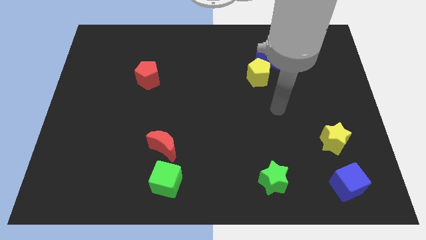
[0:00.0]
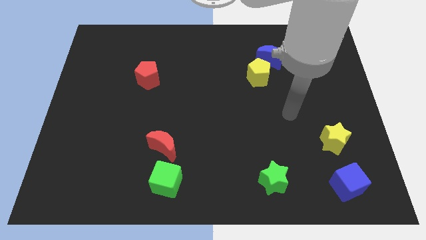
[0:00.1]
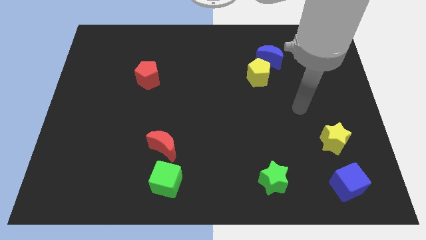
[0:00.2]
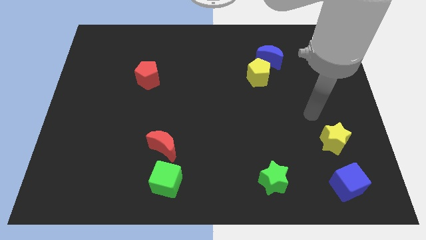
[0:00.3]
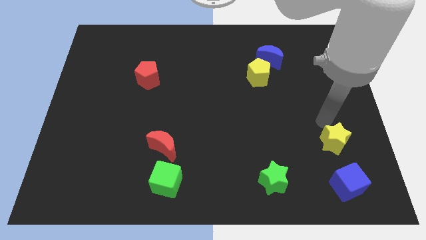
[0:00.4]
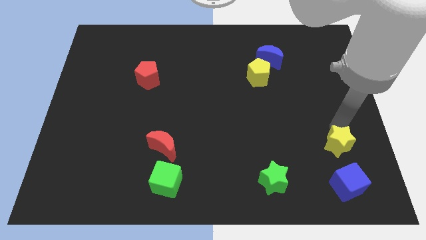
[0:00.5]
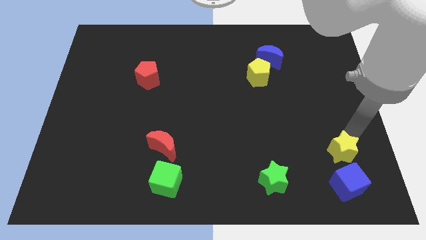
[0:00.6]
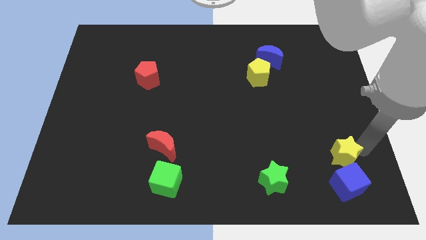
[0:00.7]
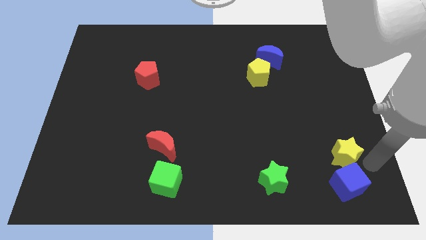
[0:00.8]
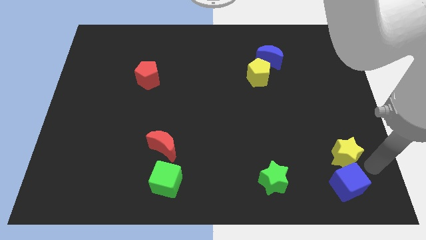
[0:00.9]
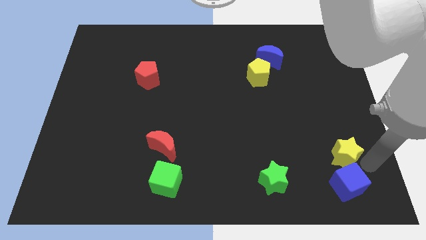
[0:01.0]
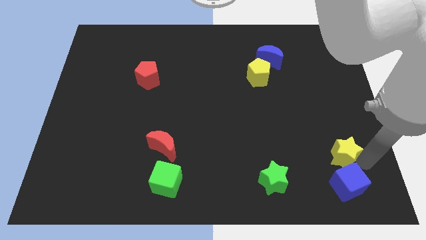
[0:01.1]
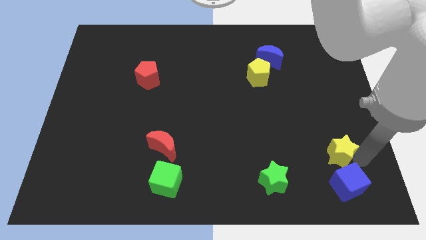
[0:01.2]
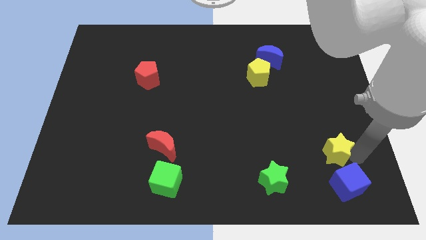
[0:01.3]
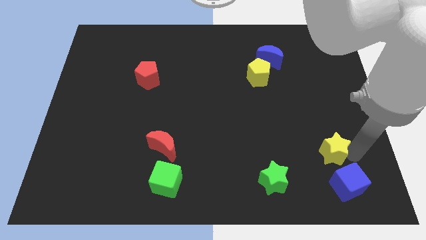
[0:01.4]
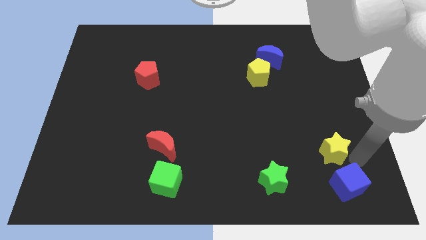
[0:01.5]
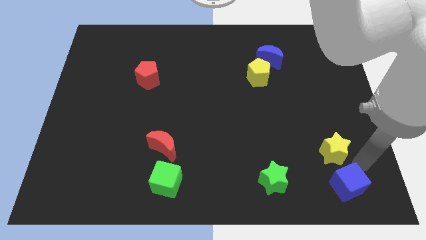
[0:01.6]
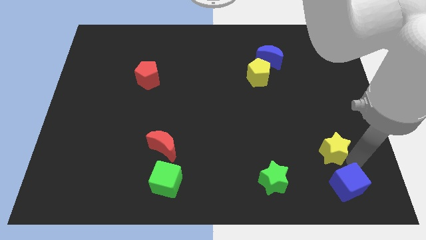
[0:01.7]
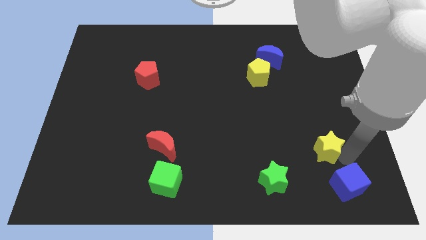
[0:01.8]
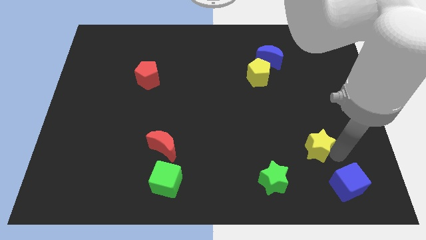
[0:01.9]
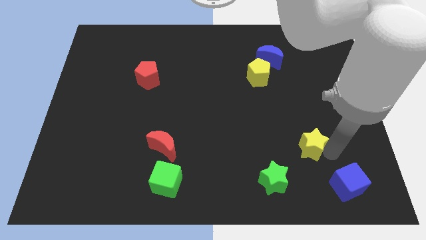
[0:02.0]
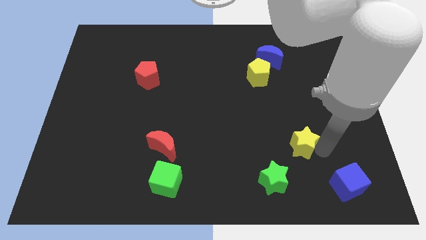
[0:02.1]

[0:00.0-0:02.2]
push the yellow star a little bit left

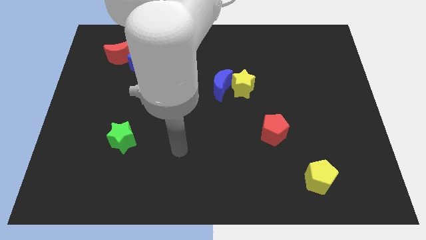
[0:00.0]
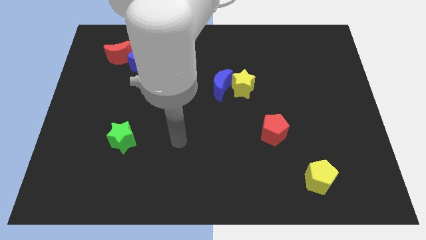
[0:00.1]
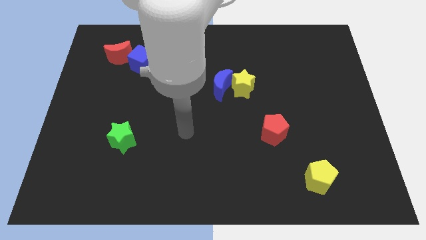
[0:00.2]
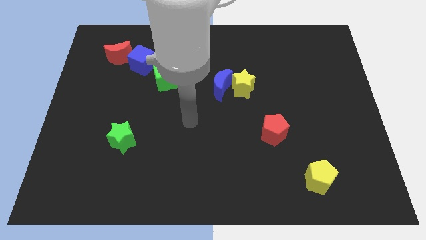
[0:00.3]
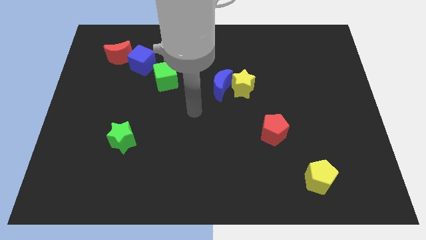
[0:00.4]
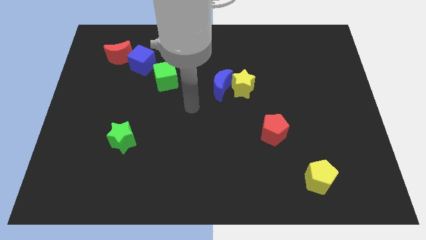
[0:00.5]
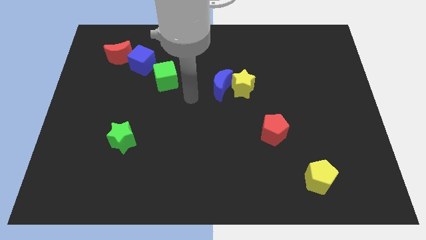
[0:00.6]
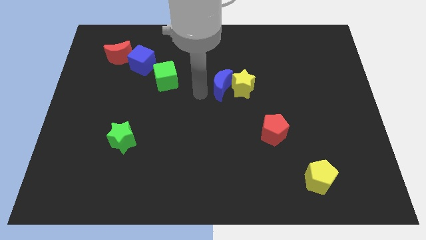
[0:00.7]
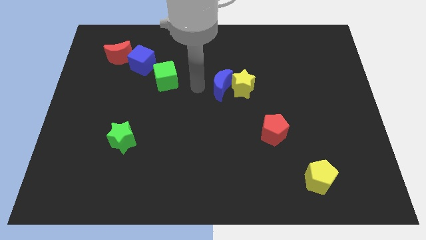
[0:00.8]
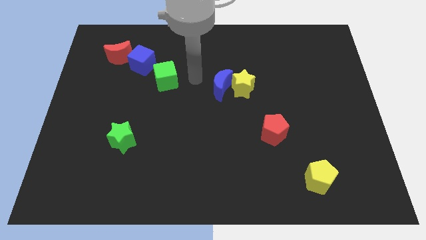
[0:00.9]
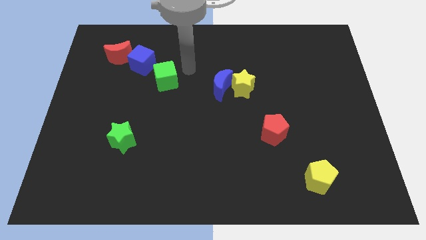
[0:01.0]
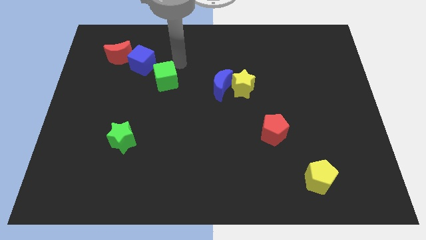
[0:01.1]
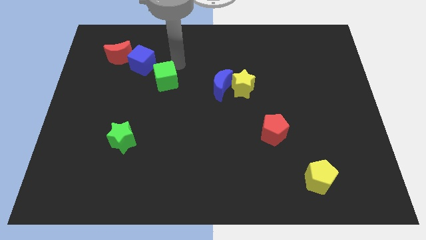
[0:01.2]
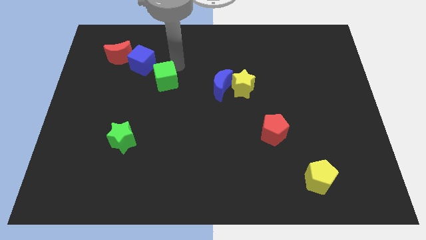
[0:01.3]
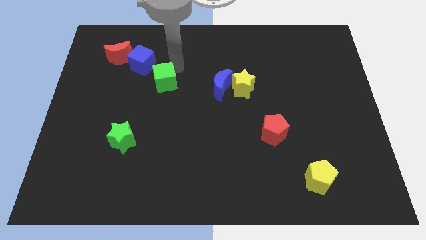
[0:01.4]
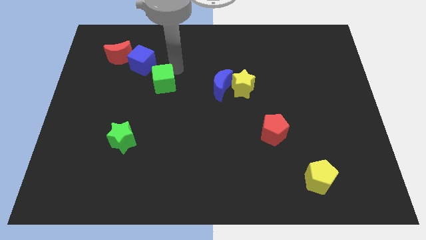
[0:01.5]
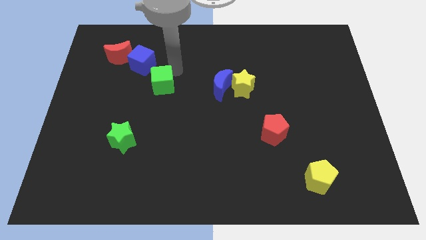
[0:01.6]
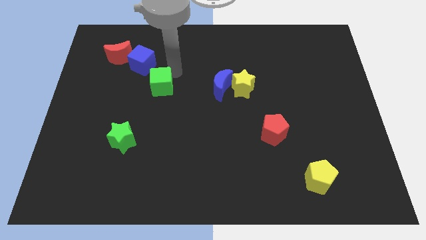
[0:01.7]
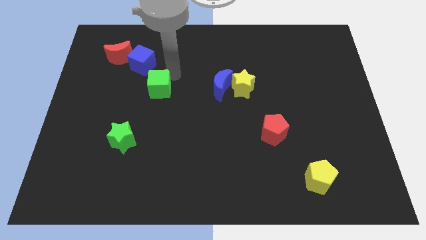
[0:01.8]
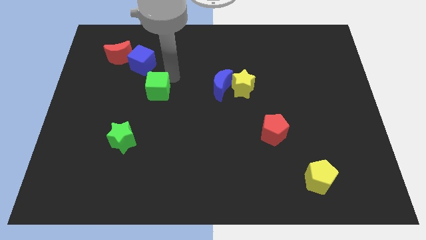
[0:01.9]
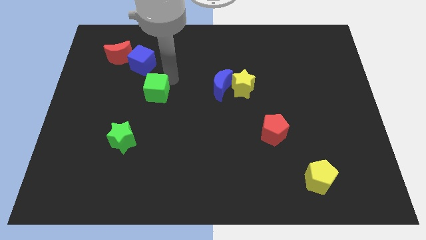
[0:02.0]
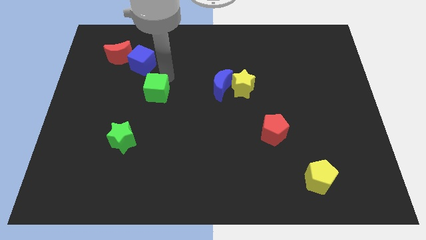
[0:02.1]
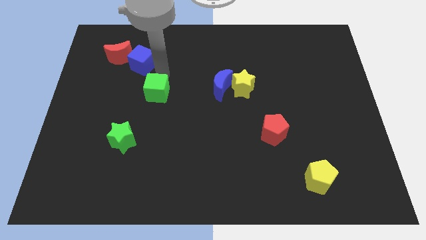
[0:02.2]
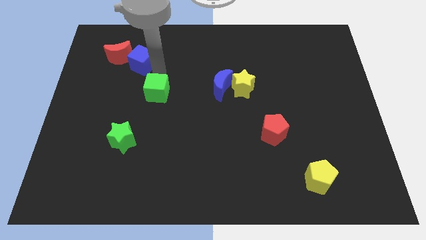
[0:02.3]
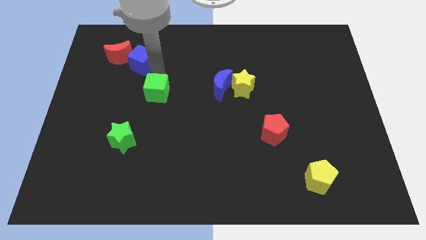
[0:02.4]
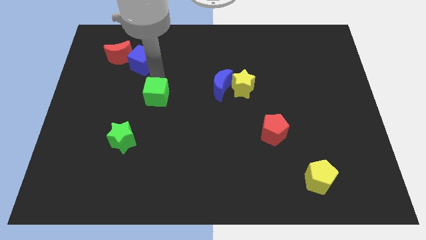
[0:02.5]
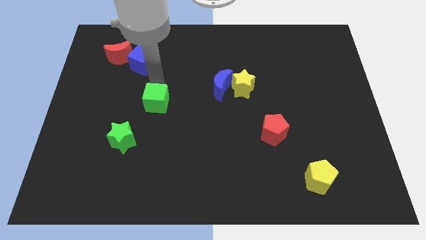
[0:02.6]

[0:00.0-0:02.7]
push the green cube a little bit downwards

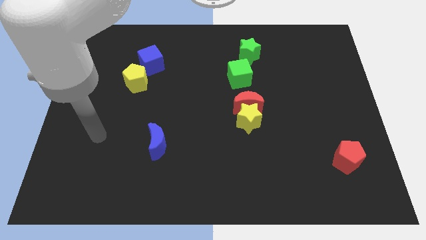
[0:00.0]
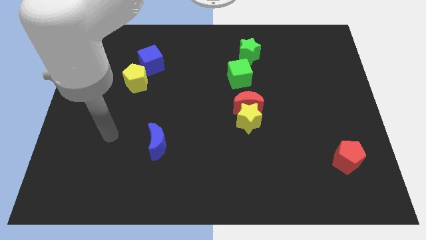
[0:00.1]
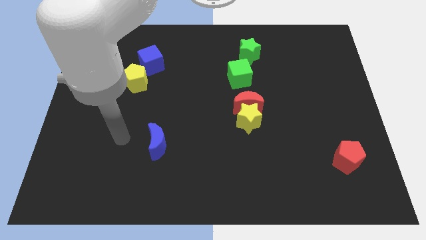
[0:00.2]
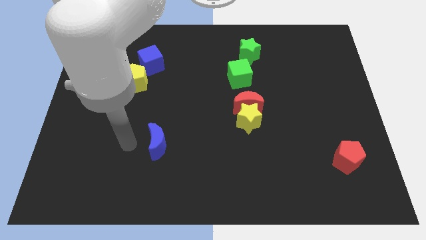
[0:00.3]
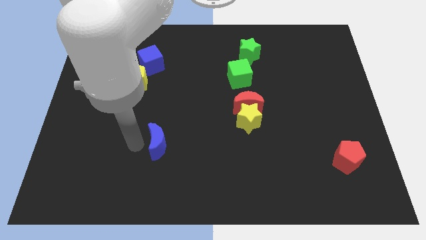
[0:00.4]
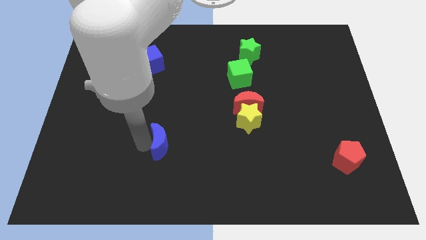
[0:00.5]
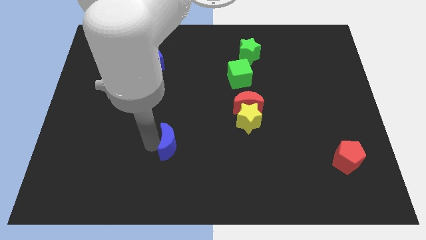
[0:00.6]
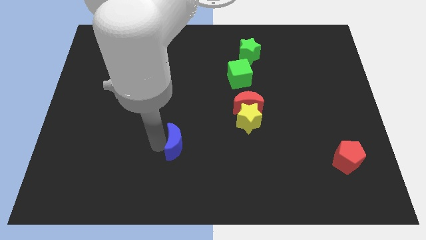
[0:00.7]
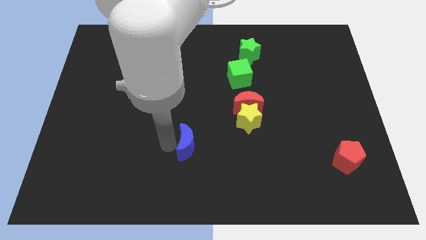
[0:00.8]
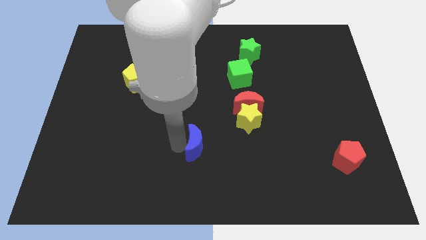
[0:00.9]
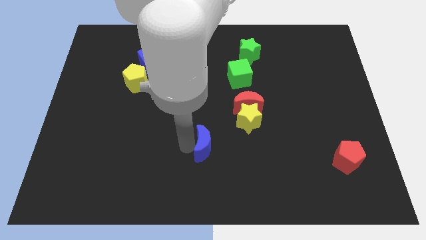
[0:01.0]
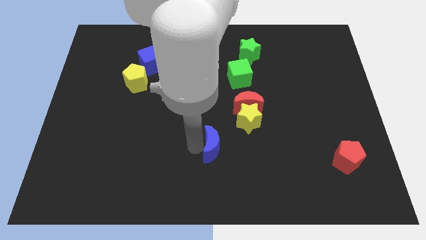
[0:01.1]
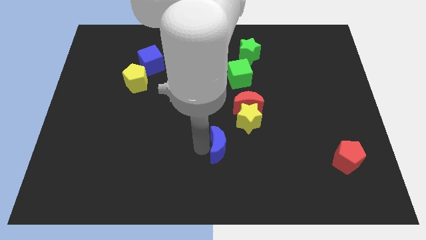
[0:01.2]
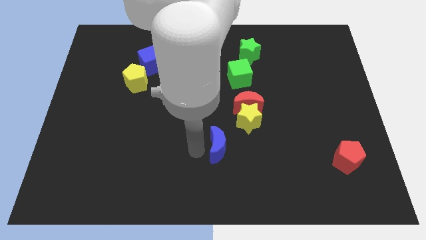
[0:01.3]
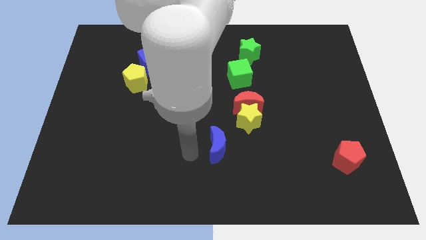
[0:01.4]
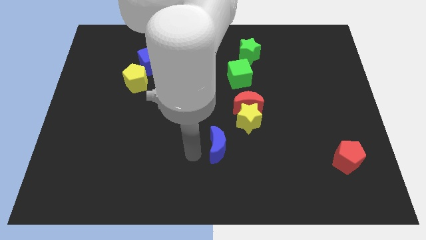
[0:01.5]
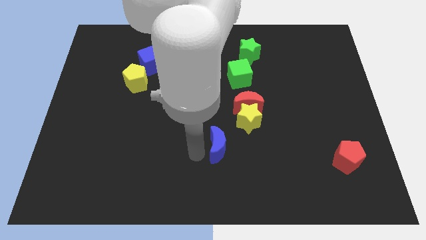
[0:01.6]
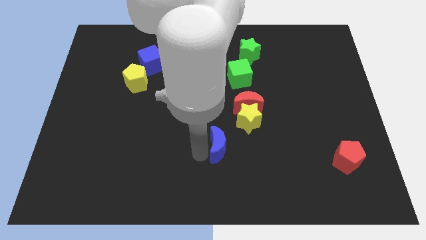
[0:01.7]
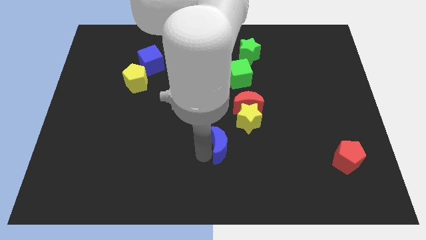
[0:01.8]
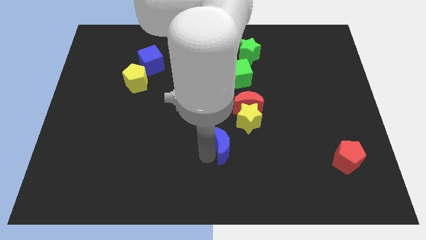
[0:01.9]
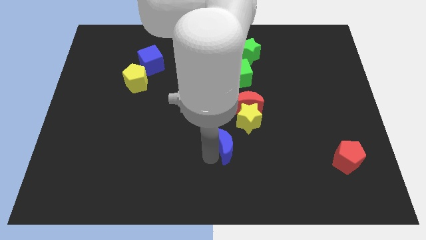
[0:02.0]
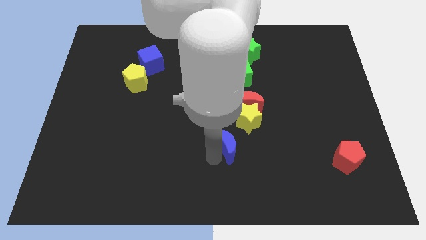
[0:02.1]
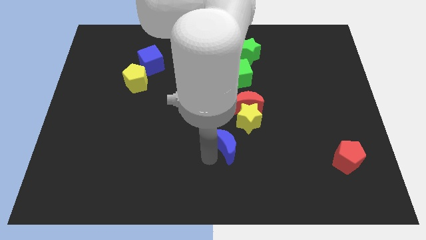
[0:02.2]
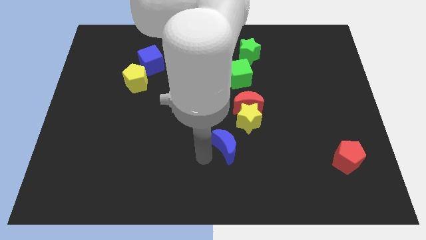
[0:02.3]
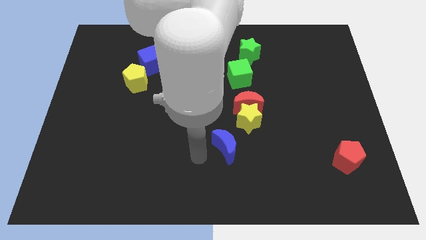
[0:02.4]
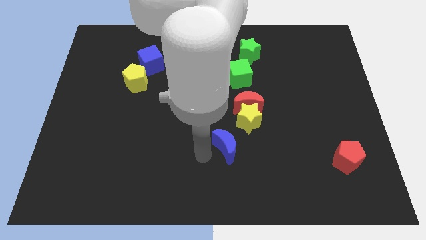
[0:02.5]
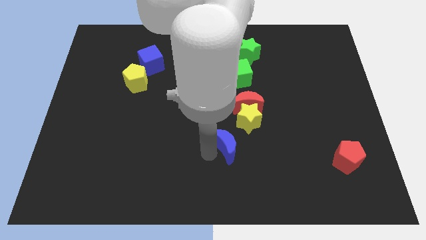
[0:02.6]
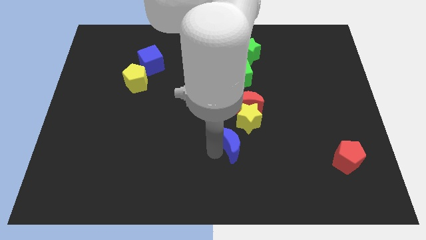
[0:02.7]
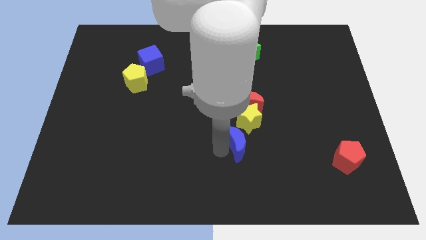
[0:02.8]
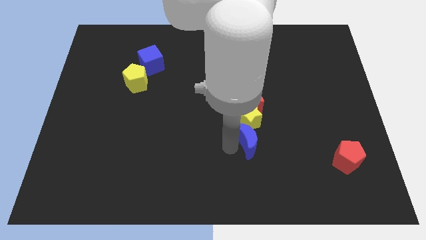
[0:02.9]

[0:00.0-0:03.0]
move the blue moon right

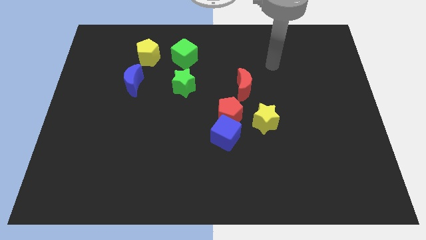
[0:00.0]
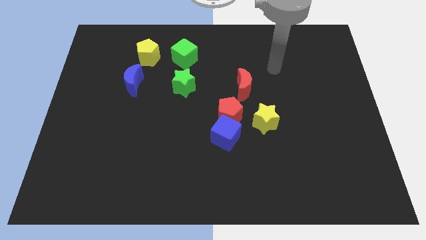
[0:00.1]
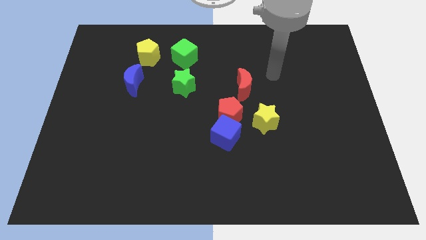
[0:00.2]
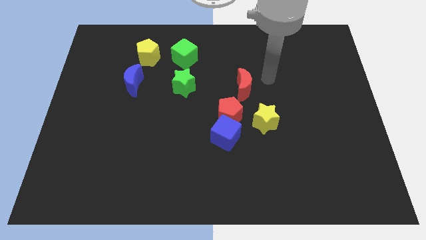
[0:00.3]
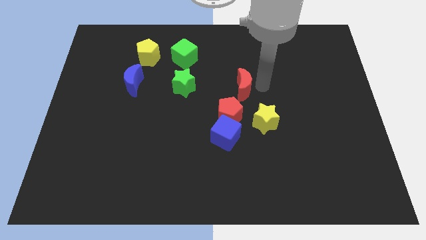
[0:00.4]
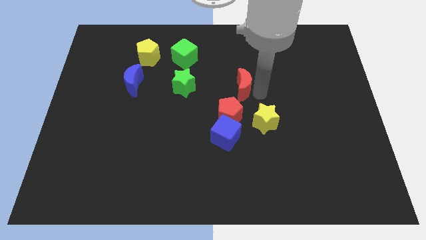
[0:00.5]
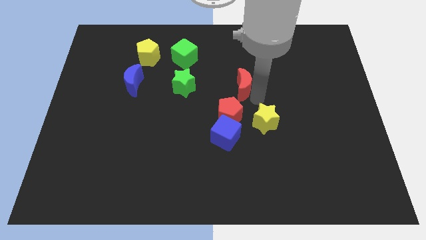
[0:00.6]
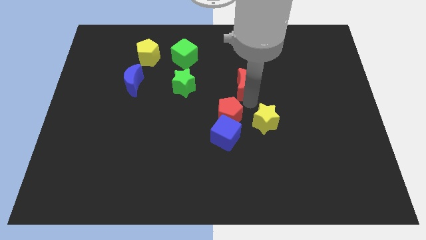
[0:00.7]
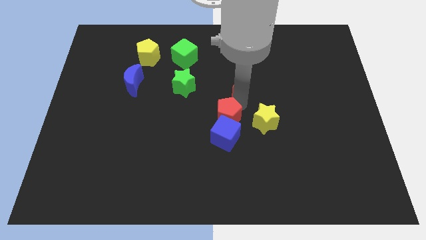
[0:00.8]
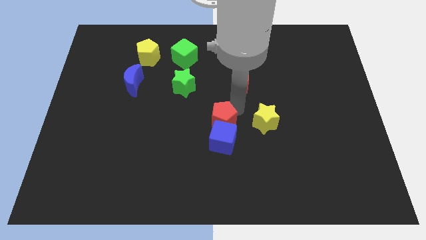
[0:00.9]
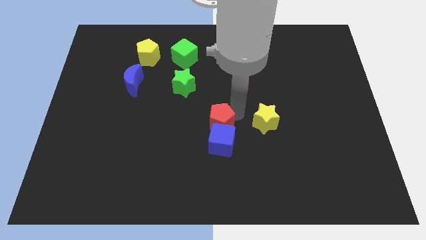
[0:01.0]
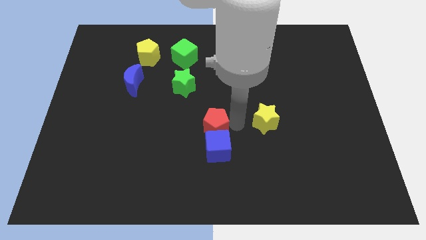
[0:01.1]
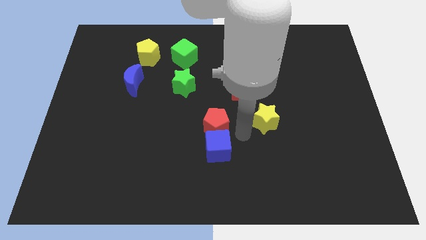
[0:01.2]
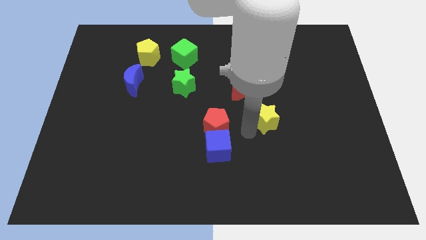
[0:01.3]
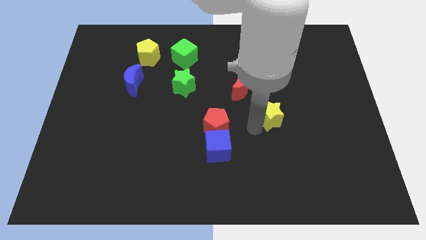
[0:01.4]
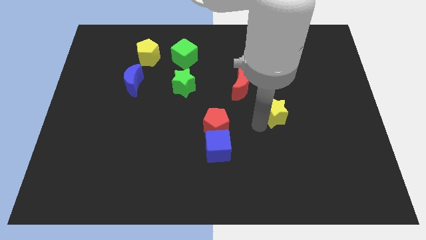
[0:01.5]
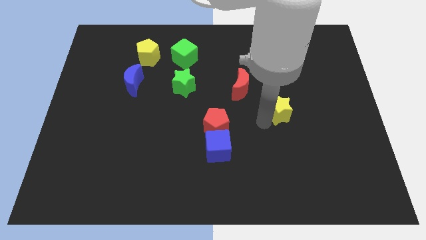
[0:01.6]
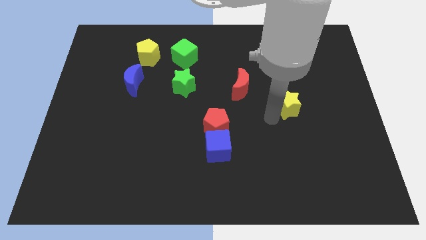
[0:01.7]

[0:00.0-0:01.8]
slide the yellow star slightly up and then right
